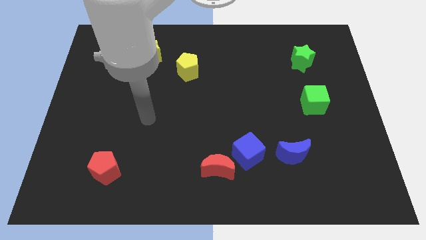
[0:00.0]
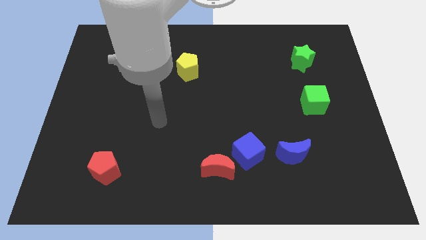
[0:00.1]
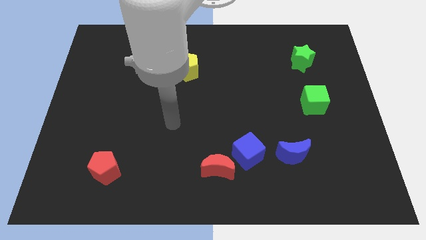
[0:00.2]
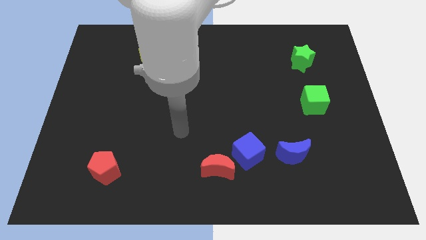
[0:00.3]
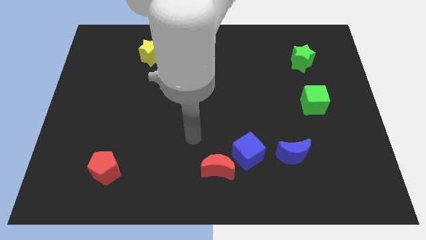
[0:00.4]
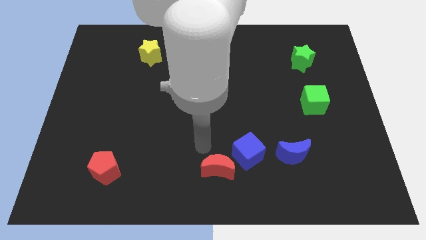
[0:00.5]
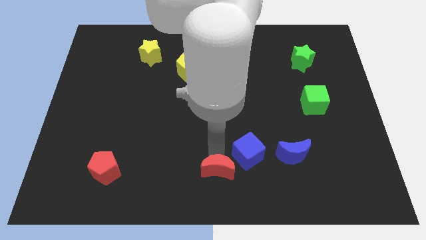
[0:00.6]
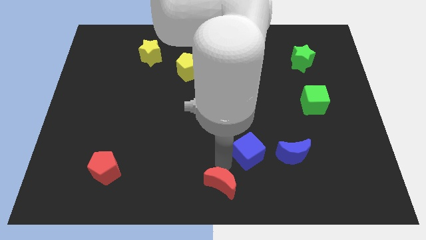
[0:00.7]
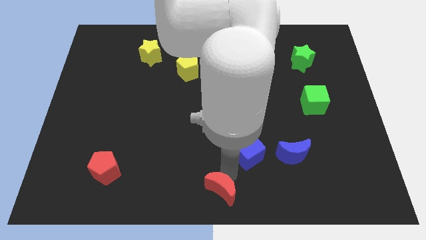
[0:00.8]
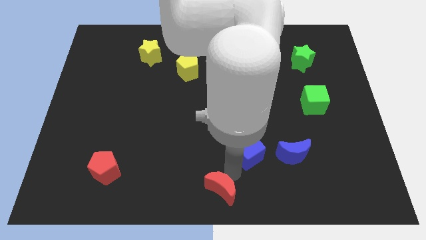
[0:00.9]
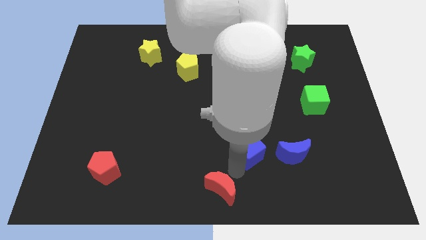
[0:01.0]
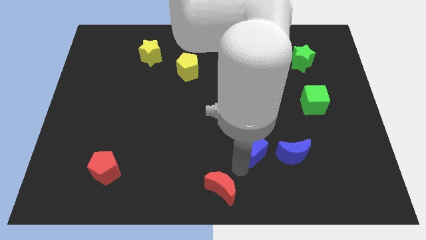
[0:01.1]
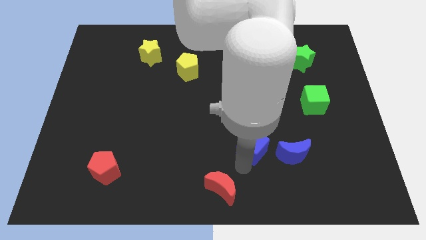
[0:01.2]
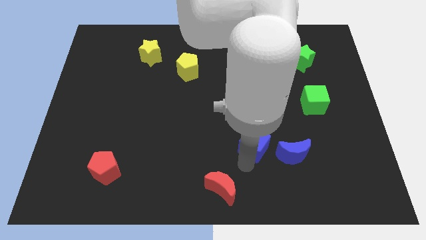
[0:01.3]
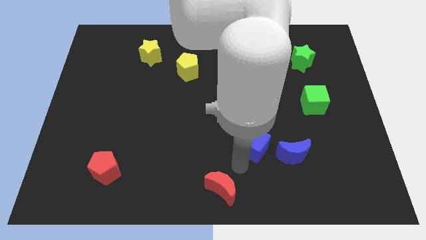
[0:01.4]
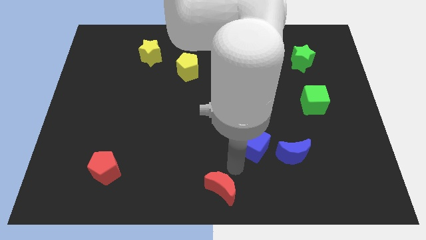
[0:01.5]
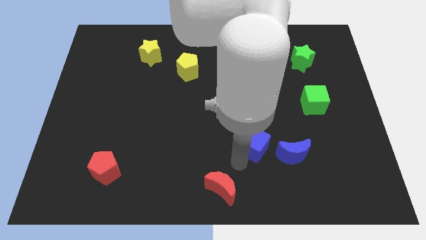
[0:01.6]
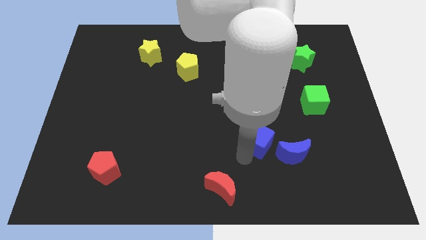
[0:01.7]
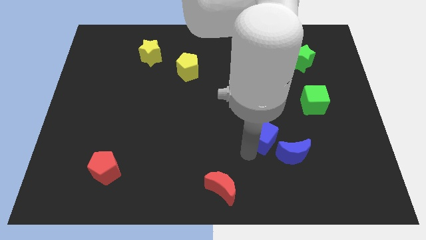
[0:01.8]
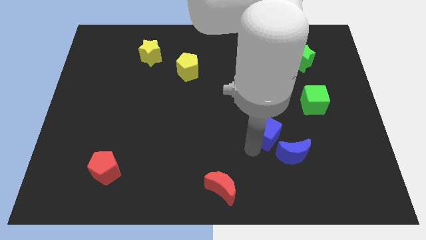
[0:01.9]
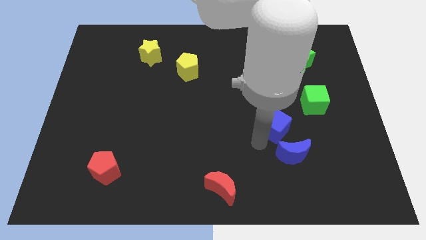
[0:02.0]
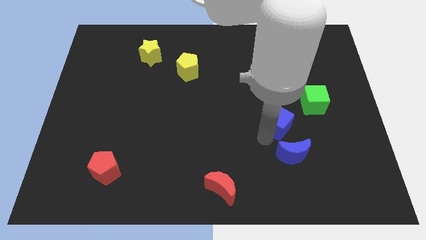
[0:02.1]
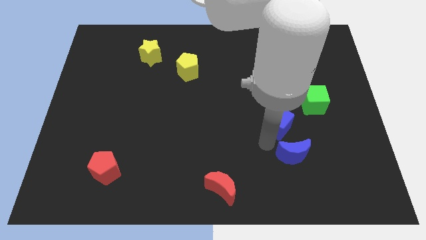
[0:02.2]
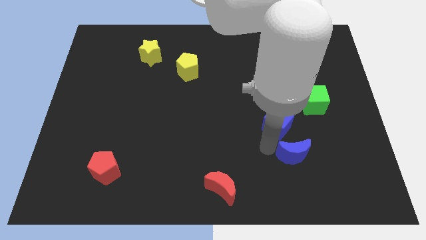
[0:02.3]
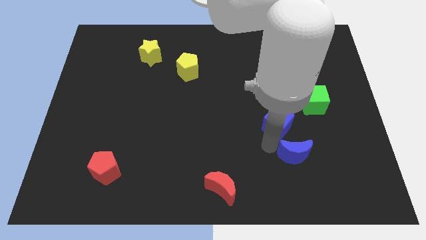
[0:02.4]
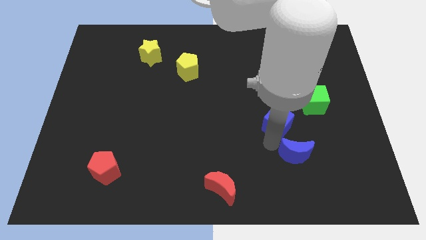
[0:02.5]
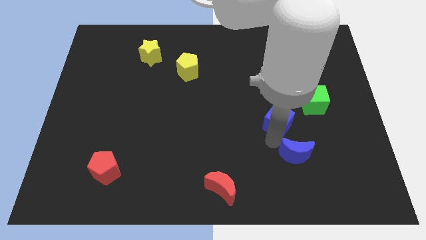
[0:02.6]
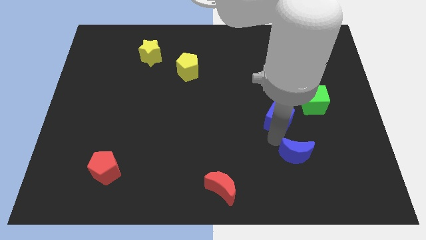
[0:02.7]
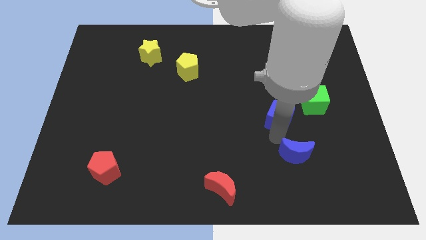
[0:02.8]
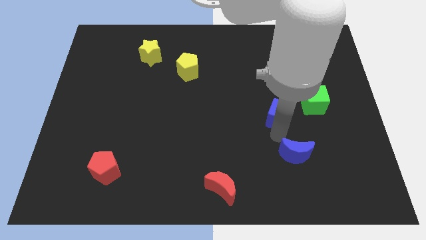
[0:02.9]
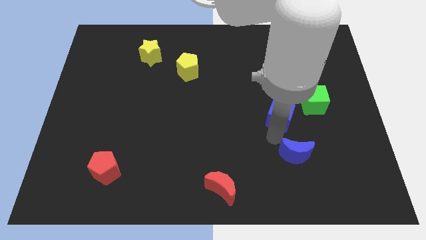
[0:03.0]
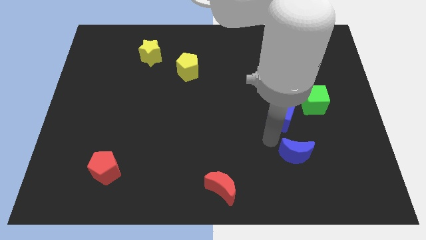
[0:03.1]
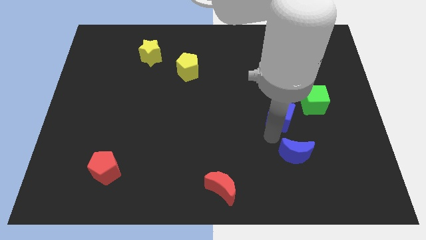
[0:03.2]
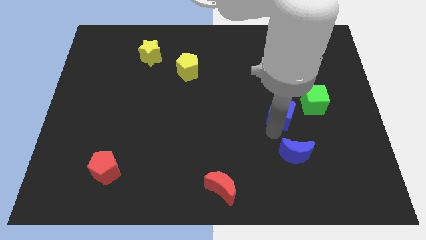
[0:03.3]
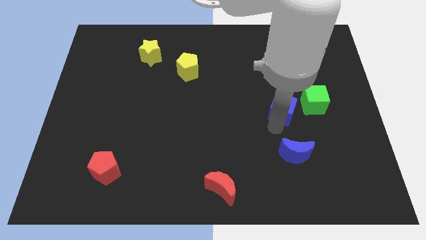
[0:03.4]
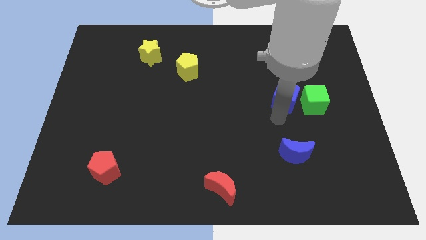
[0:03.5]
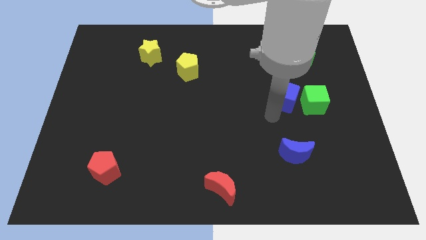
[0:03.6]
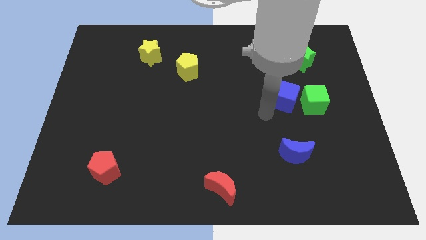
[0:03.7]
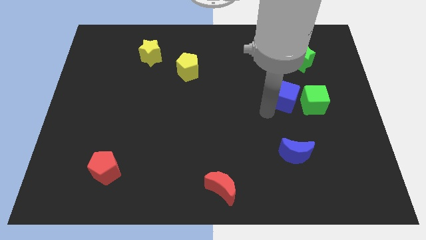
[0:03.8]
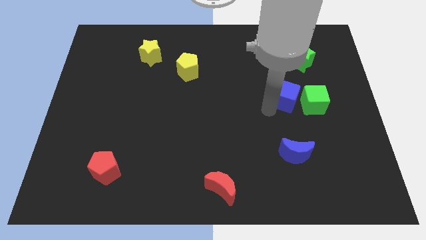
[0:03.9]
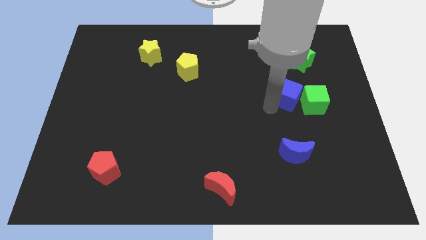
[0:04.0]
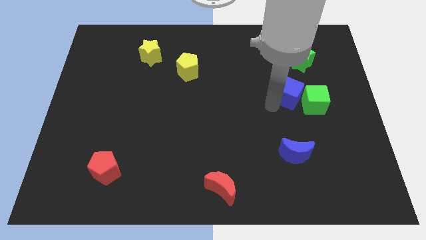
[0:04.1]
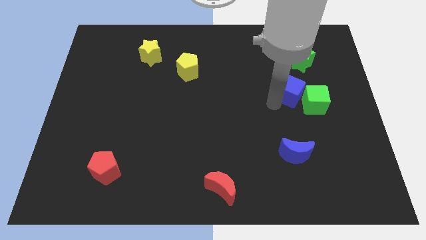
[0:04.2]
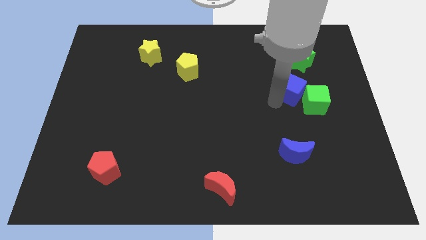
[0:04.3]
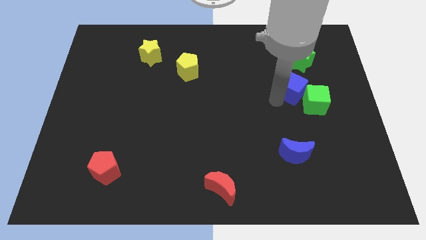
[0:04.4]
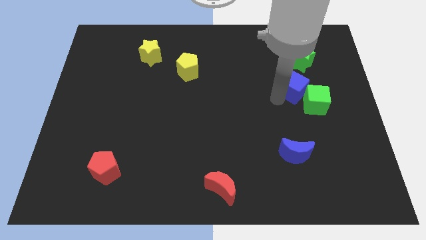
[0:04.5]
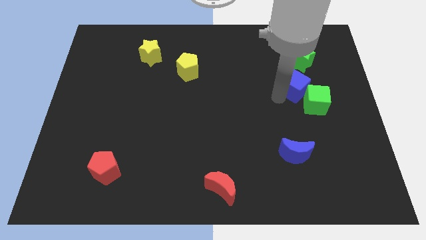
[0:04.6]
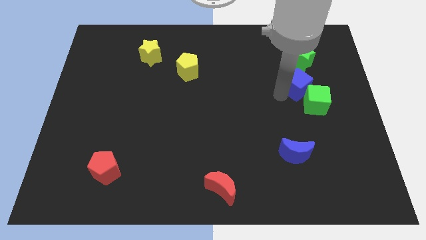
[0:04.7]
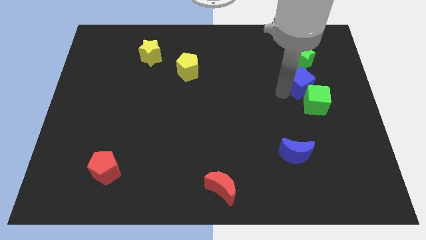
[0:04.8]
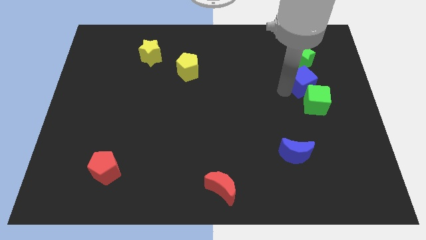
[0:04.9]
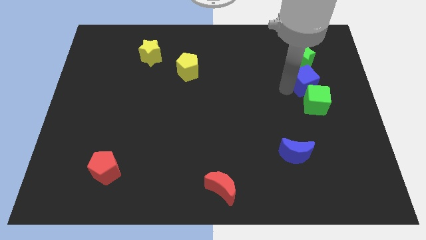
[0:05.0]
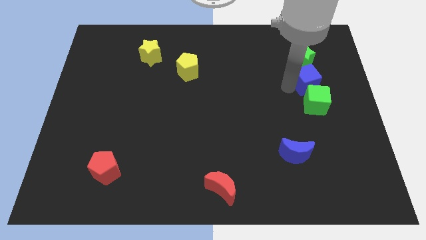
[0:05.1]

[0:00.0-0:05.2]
push the blue cube to the bottom right of the green star

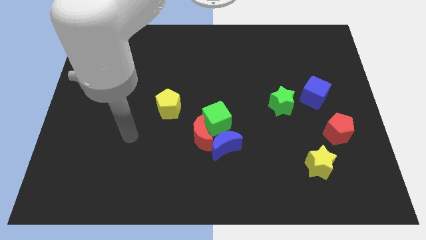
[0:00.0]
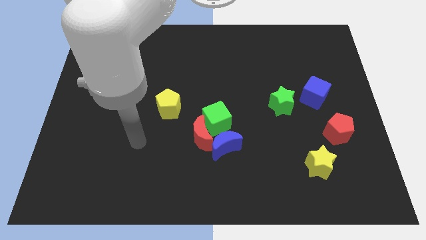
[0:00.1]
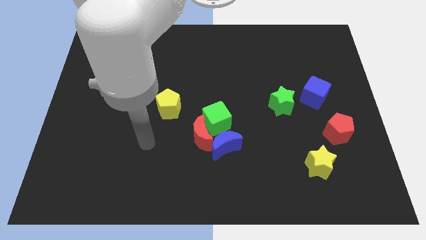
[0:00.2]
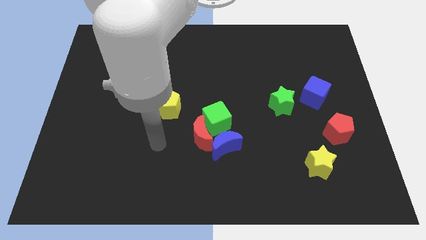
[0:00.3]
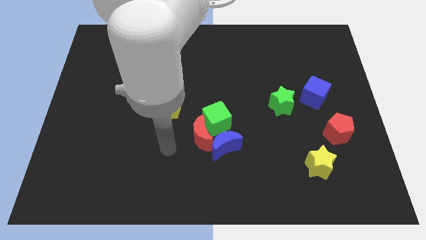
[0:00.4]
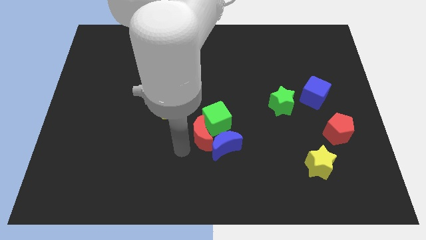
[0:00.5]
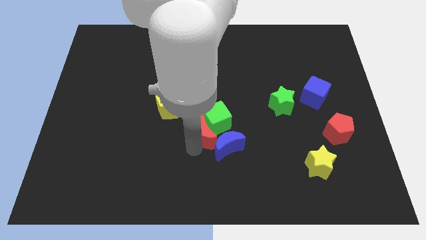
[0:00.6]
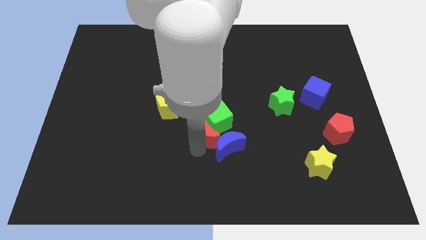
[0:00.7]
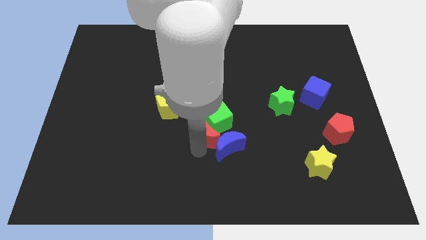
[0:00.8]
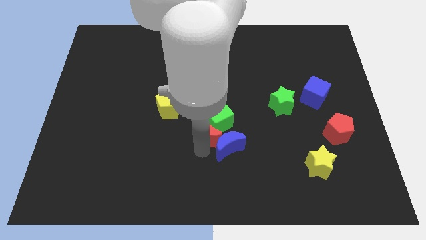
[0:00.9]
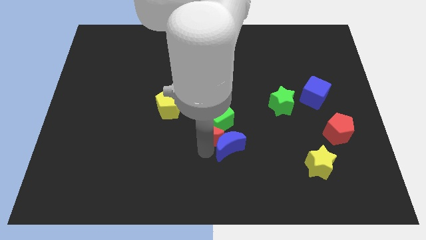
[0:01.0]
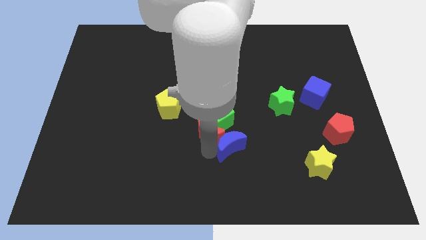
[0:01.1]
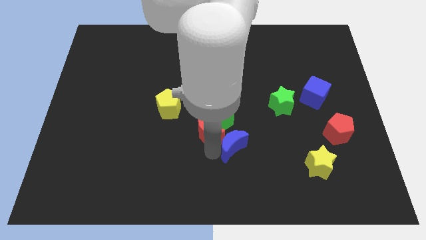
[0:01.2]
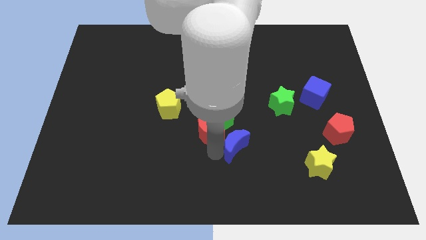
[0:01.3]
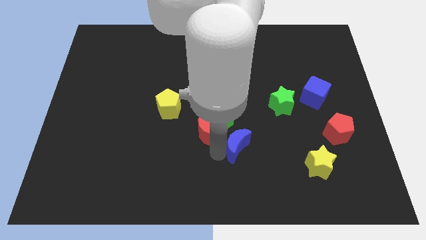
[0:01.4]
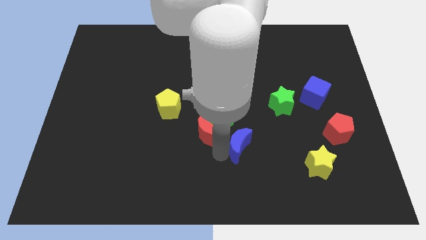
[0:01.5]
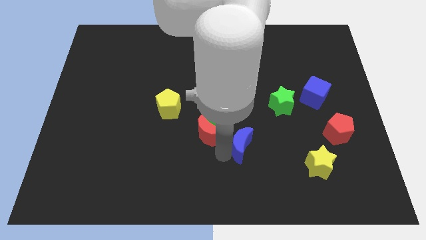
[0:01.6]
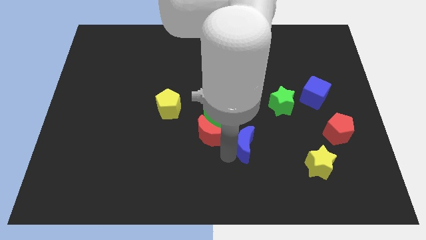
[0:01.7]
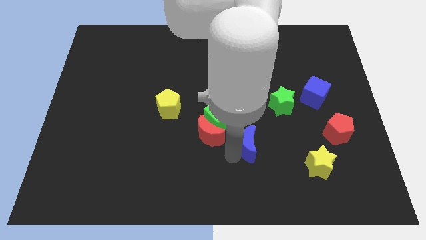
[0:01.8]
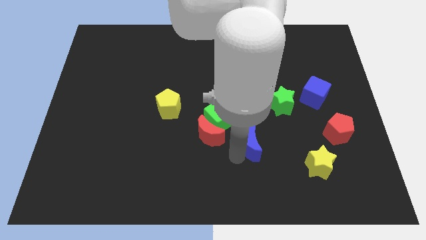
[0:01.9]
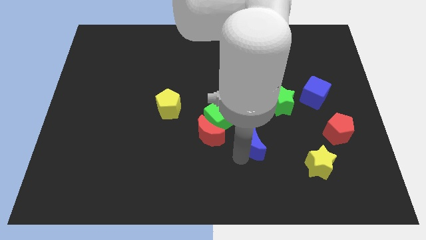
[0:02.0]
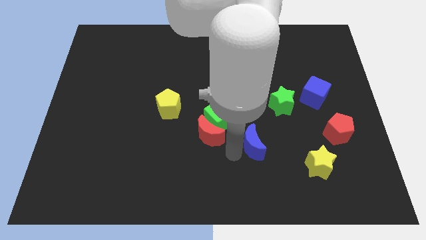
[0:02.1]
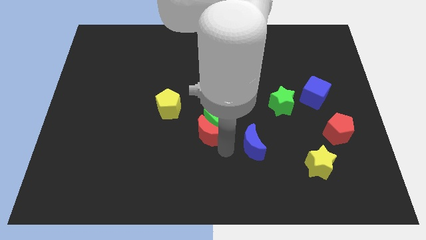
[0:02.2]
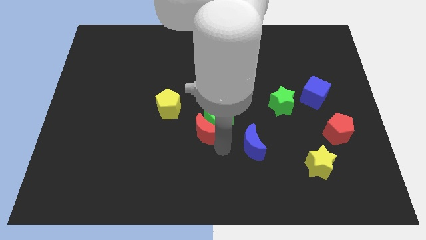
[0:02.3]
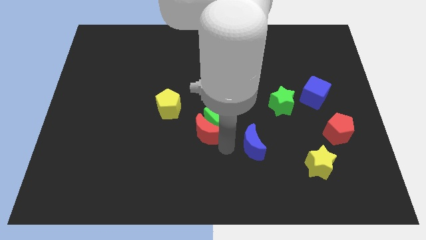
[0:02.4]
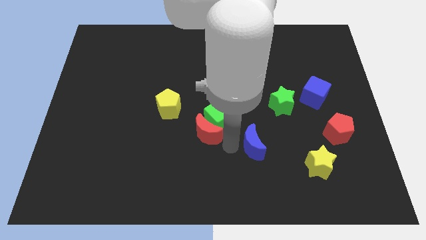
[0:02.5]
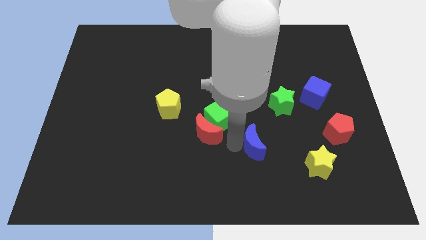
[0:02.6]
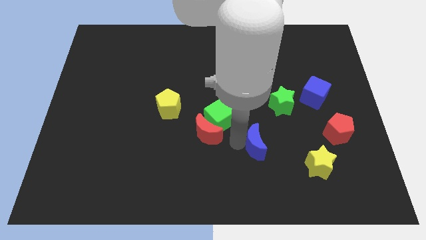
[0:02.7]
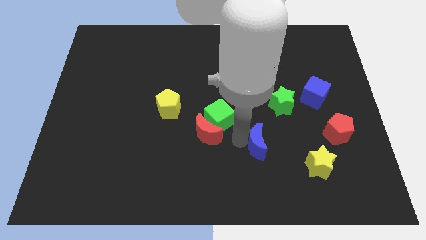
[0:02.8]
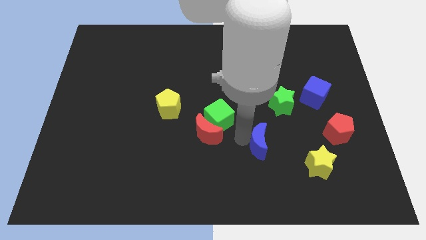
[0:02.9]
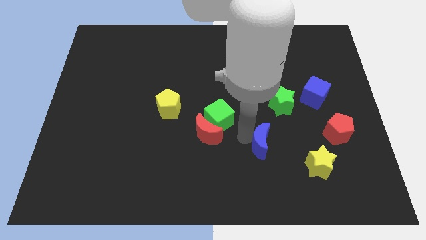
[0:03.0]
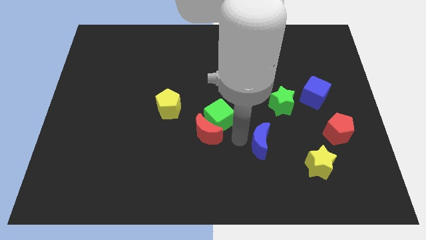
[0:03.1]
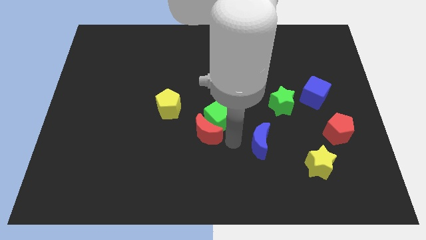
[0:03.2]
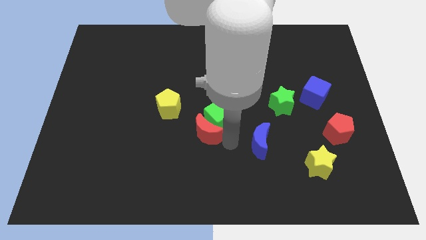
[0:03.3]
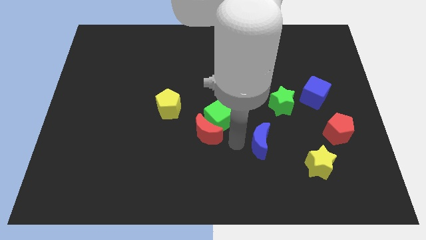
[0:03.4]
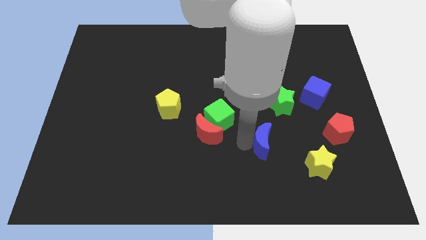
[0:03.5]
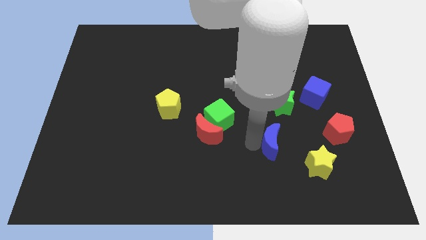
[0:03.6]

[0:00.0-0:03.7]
move the blue moon diagonally up and to the left of the yellow star
